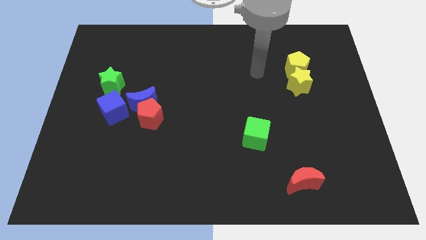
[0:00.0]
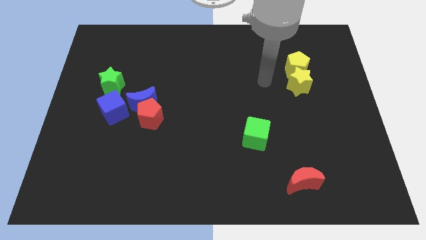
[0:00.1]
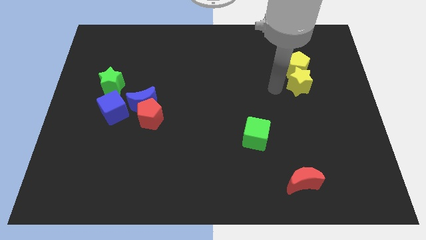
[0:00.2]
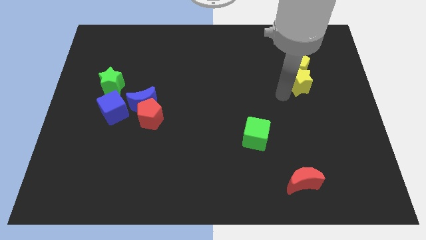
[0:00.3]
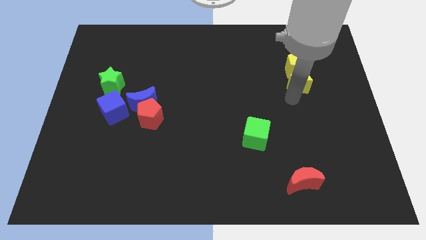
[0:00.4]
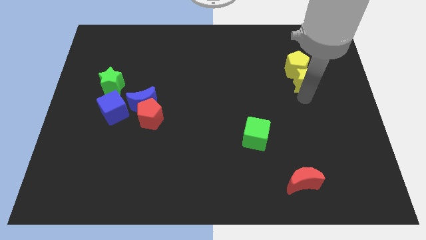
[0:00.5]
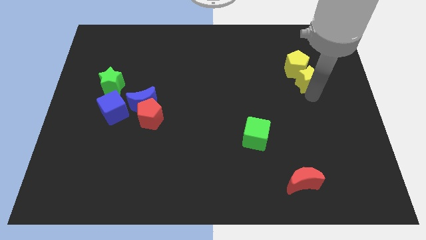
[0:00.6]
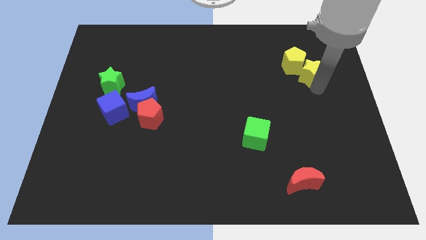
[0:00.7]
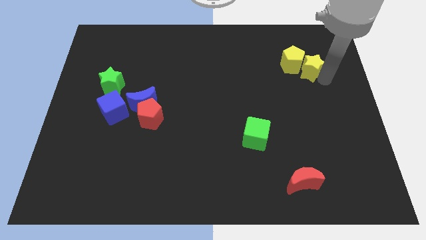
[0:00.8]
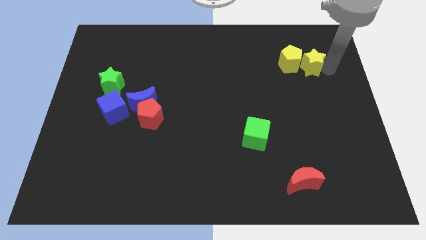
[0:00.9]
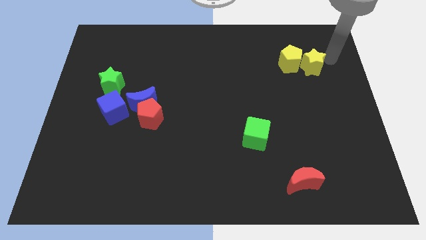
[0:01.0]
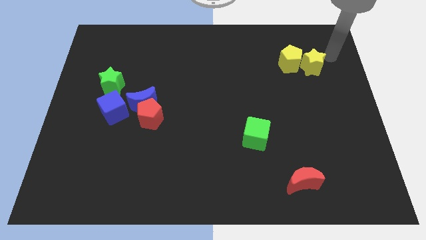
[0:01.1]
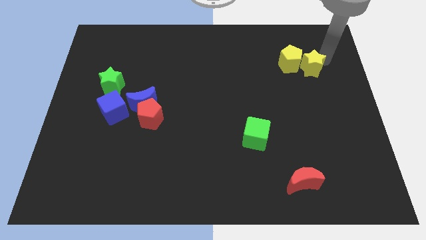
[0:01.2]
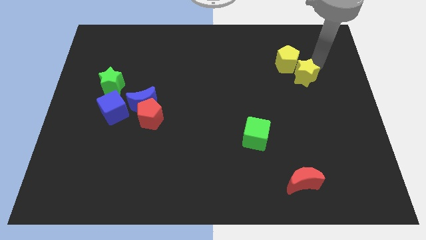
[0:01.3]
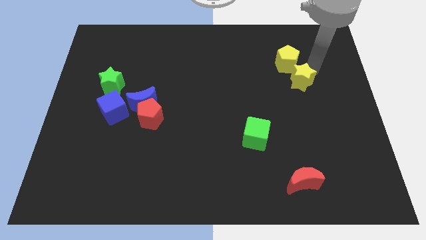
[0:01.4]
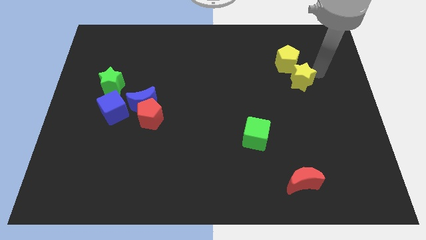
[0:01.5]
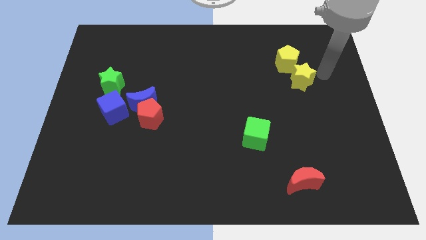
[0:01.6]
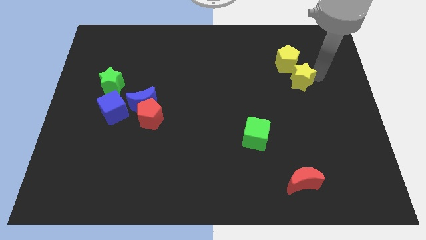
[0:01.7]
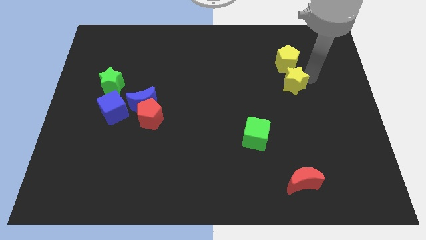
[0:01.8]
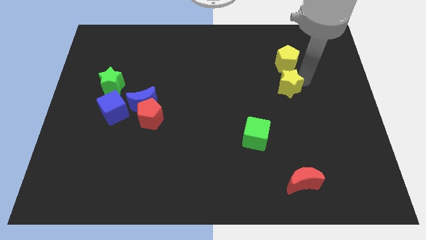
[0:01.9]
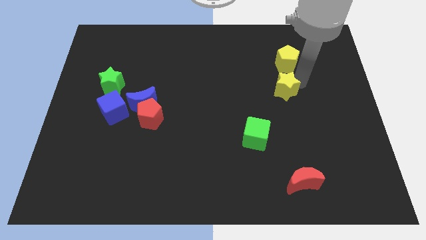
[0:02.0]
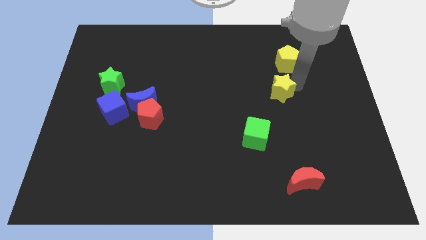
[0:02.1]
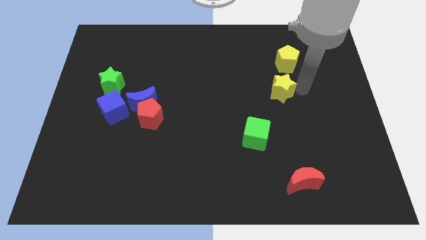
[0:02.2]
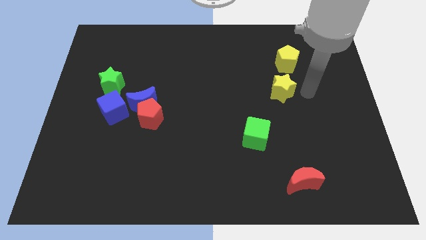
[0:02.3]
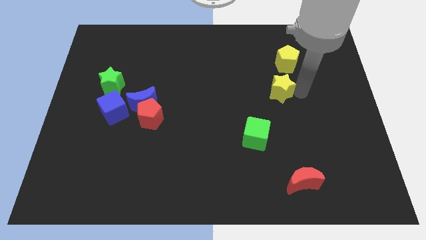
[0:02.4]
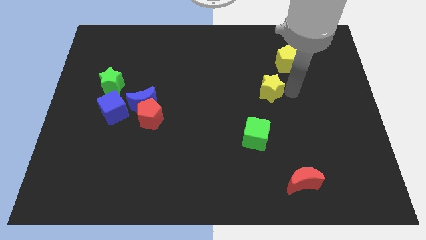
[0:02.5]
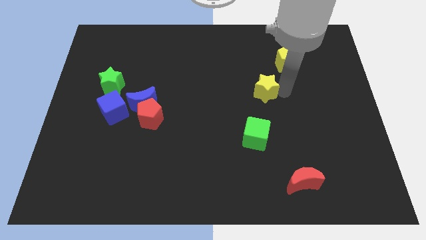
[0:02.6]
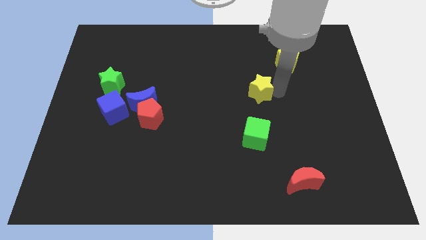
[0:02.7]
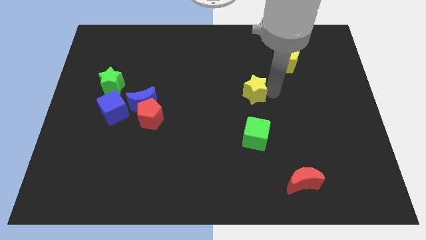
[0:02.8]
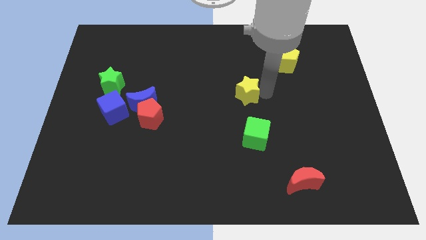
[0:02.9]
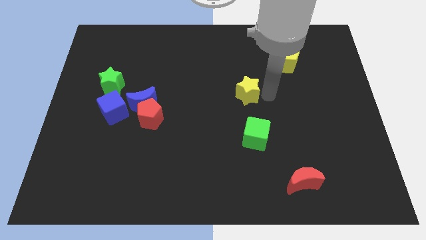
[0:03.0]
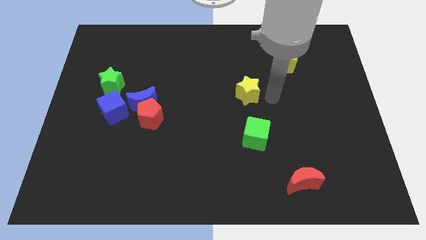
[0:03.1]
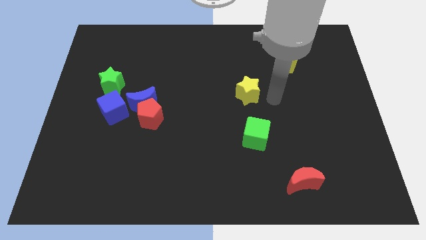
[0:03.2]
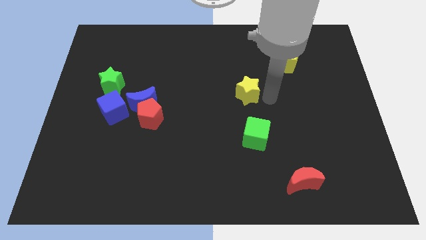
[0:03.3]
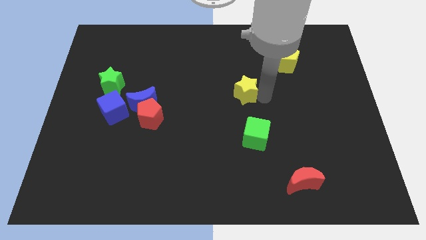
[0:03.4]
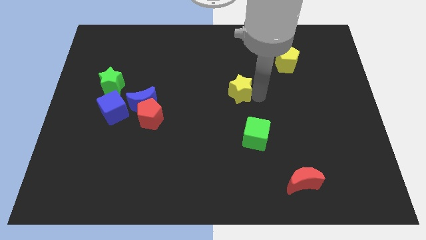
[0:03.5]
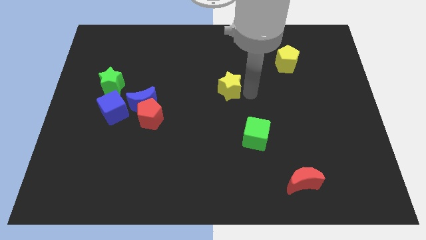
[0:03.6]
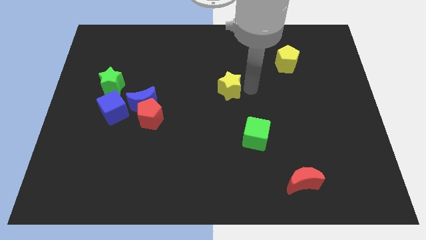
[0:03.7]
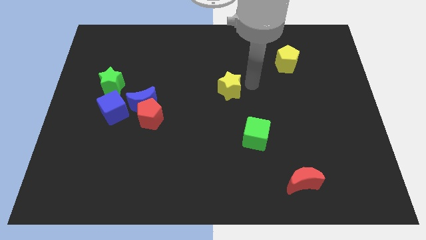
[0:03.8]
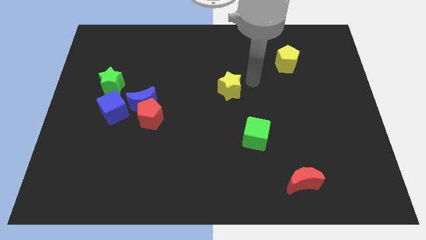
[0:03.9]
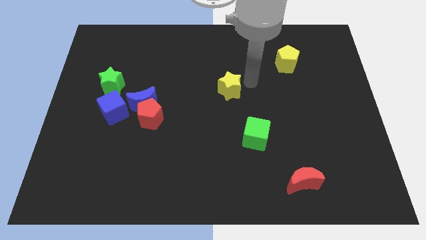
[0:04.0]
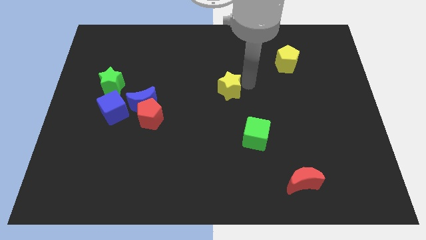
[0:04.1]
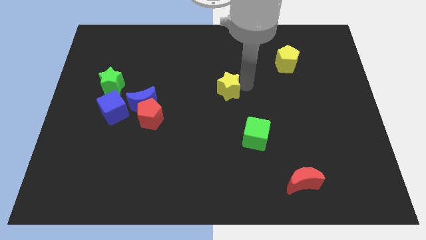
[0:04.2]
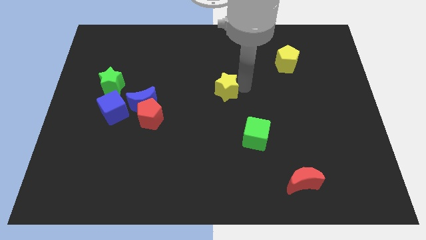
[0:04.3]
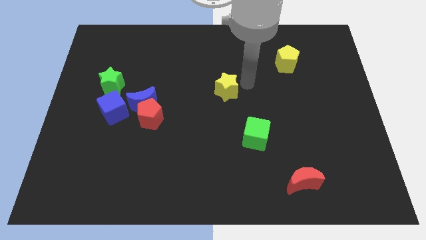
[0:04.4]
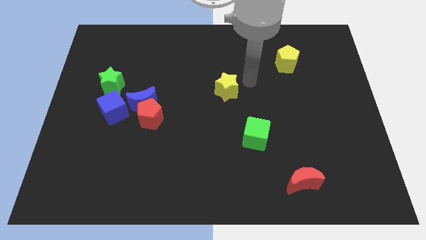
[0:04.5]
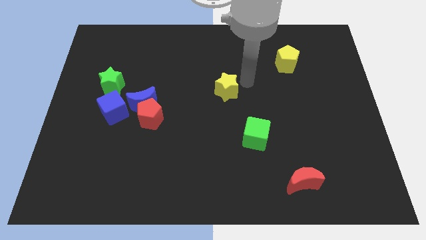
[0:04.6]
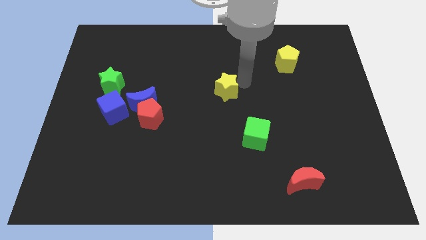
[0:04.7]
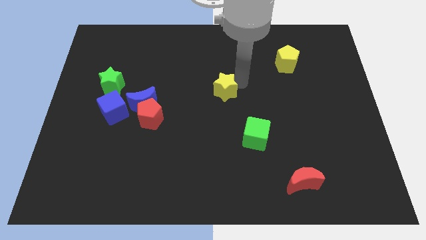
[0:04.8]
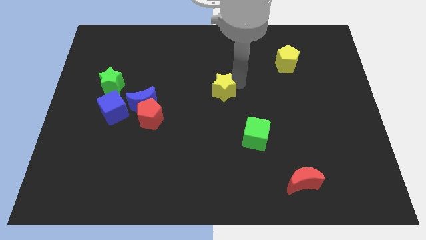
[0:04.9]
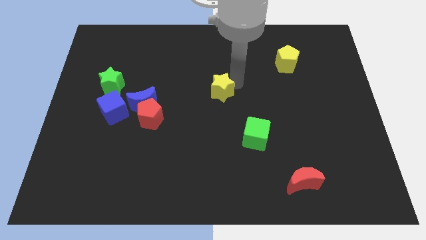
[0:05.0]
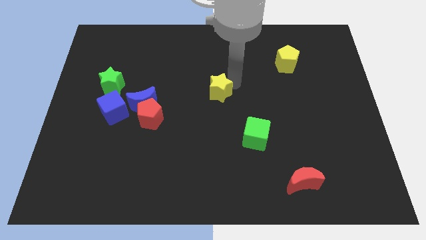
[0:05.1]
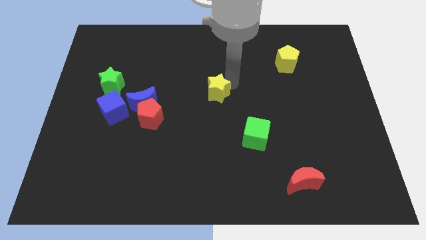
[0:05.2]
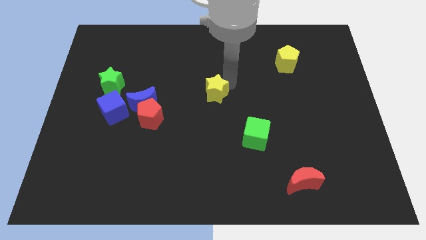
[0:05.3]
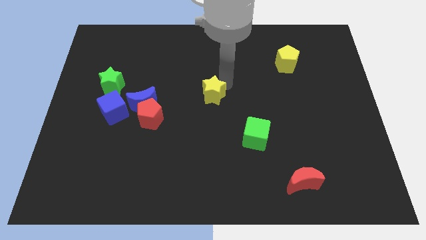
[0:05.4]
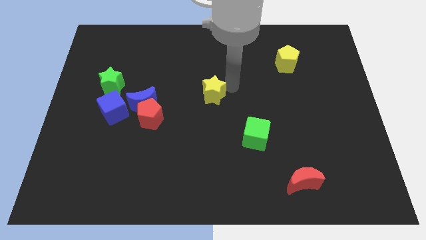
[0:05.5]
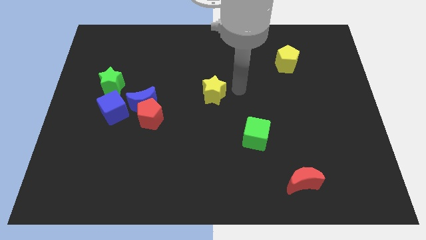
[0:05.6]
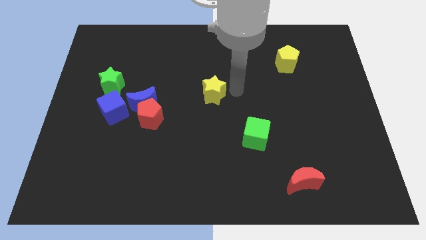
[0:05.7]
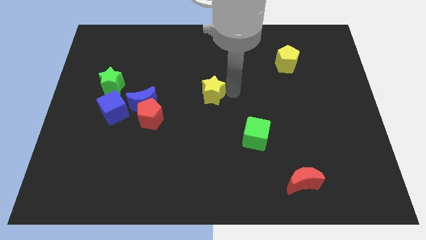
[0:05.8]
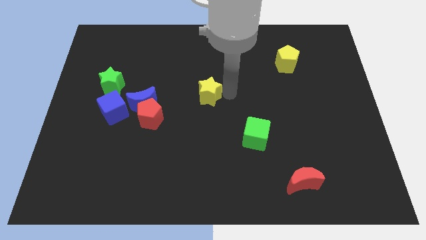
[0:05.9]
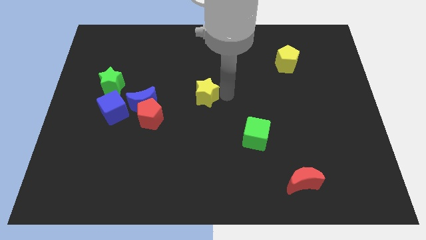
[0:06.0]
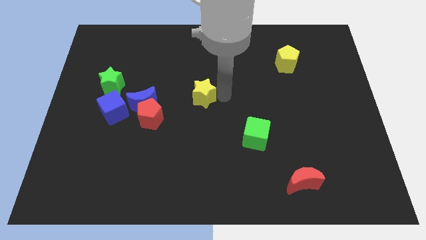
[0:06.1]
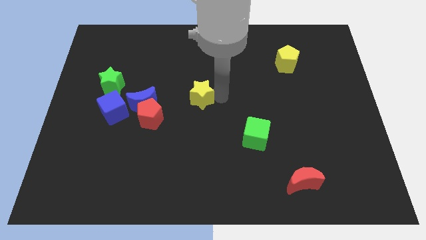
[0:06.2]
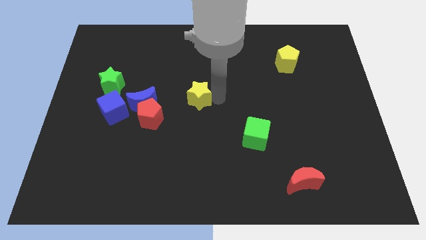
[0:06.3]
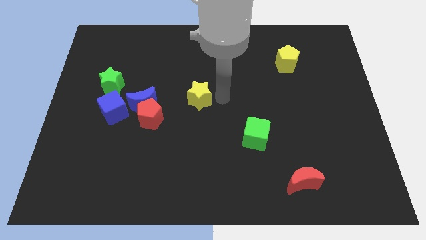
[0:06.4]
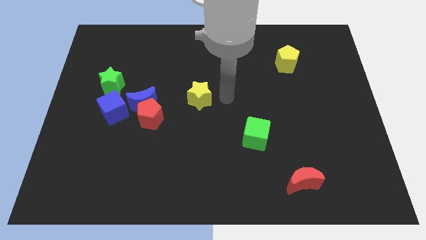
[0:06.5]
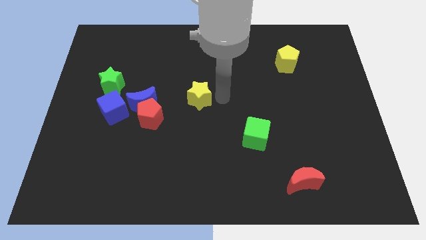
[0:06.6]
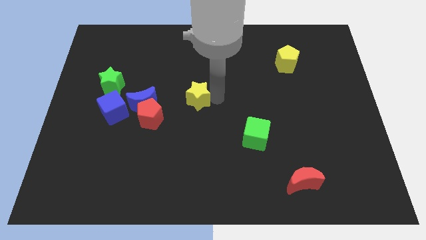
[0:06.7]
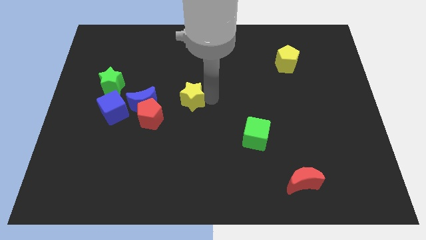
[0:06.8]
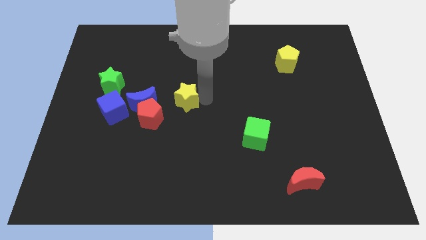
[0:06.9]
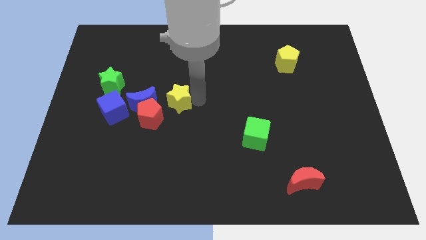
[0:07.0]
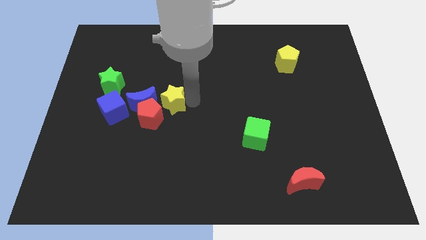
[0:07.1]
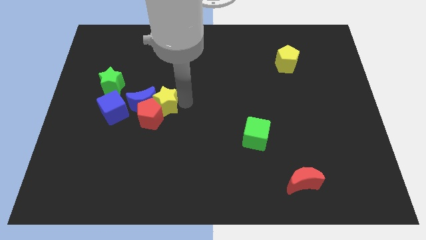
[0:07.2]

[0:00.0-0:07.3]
put the yellow star next to the blue moon

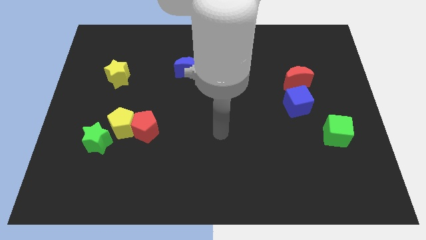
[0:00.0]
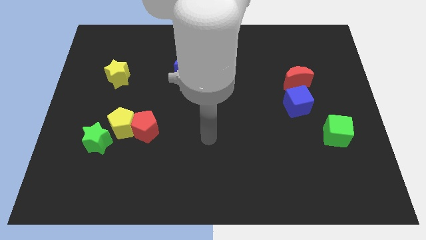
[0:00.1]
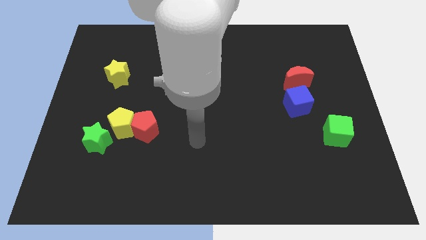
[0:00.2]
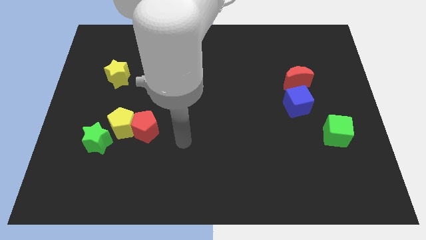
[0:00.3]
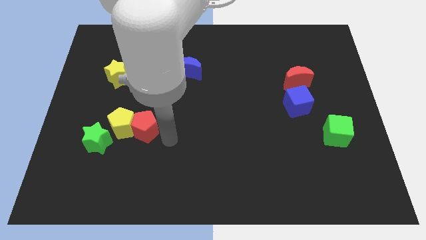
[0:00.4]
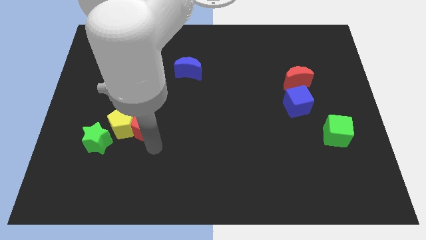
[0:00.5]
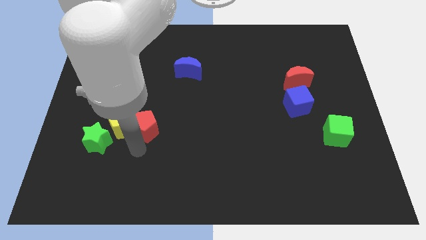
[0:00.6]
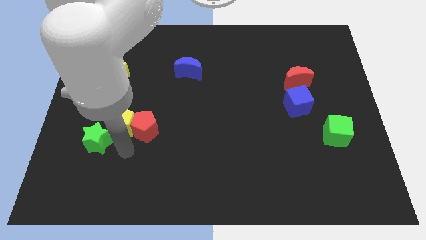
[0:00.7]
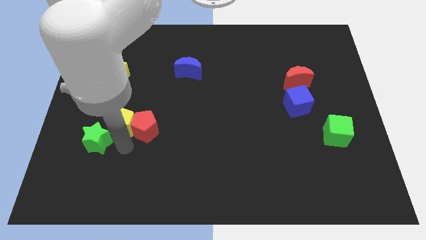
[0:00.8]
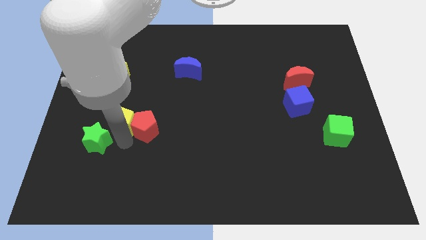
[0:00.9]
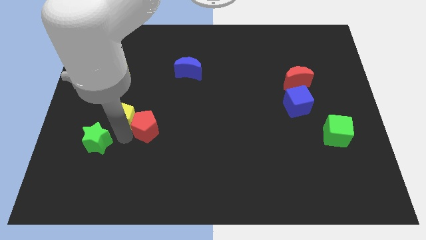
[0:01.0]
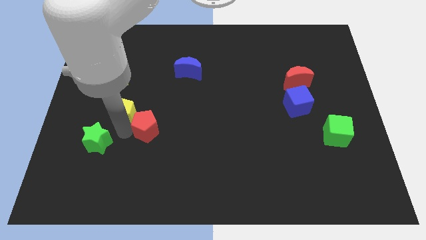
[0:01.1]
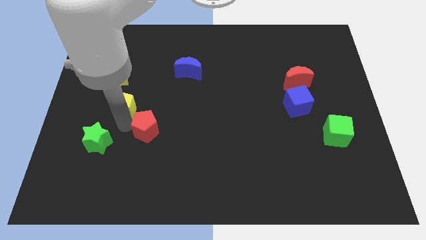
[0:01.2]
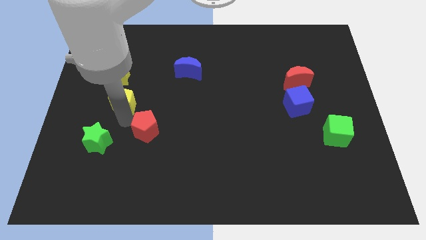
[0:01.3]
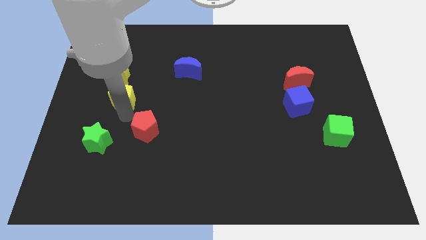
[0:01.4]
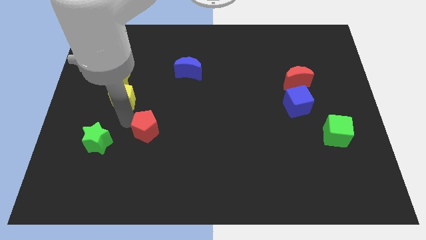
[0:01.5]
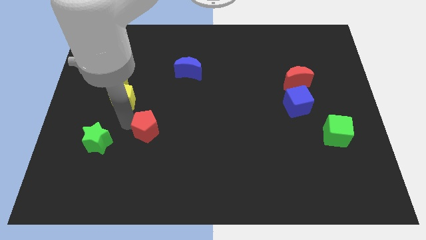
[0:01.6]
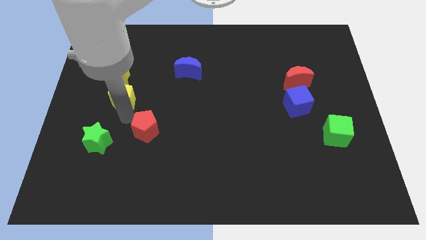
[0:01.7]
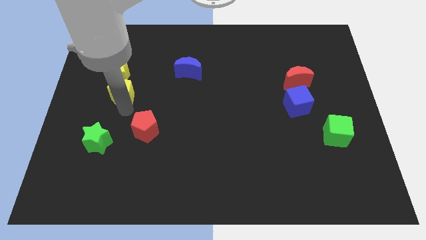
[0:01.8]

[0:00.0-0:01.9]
put the yellow pentagon towards the yellow star
